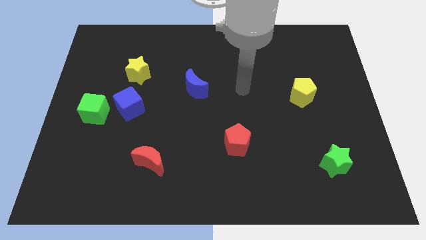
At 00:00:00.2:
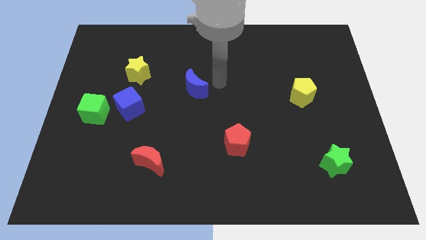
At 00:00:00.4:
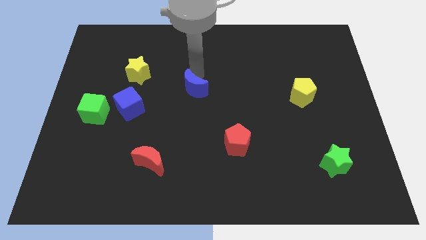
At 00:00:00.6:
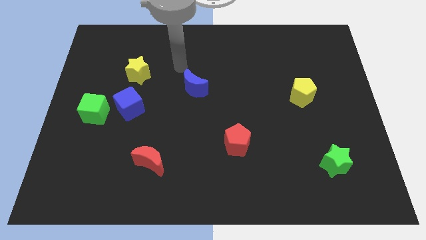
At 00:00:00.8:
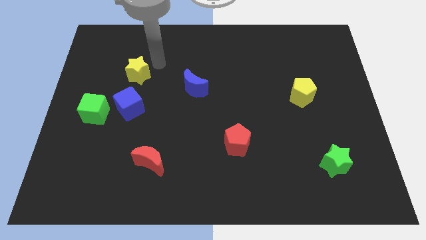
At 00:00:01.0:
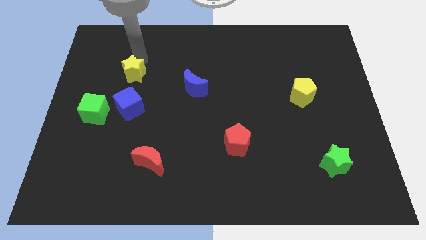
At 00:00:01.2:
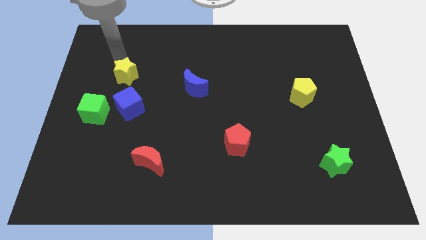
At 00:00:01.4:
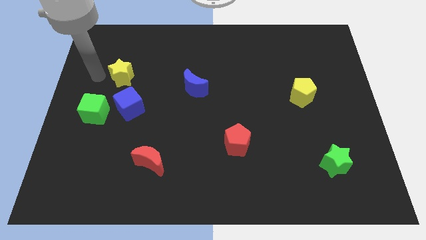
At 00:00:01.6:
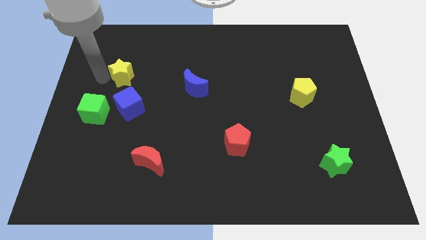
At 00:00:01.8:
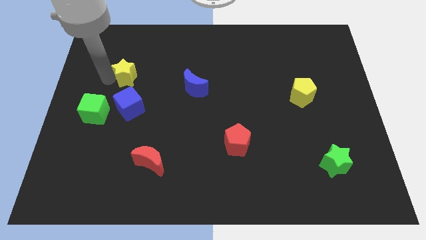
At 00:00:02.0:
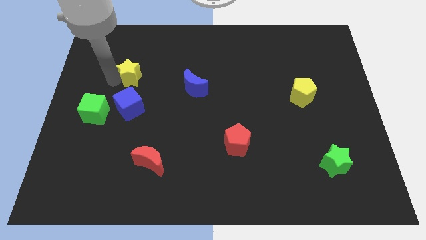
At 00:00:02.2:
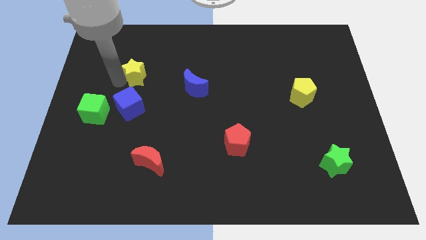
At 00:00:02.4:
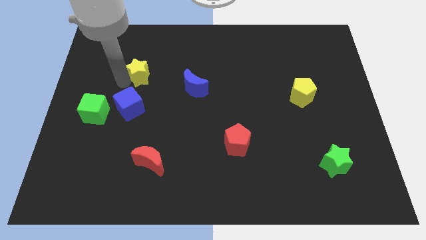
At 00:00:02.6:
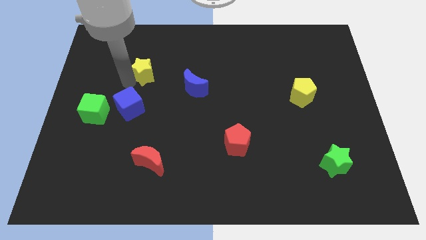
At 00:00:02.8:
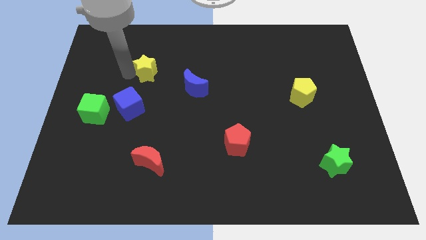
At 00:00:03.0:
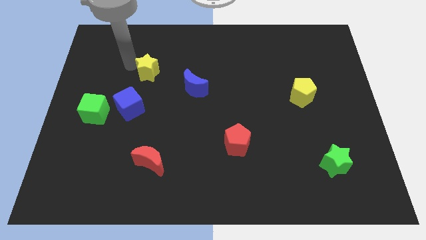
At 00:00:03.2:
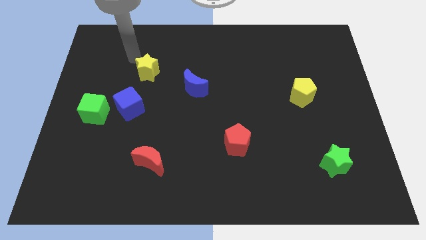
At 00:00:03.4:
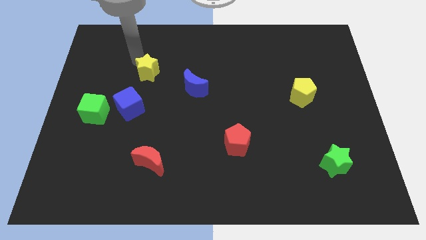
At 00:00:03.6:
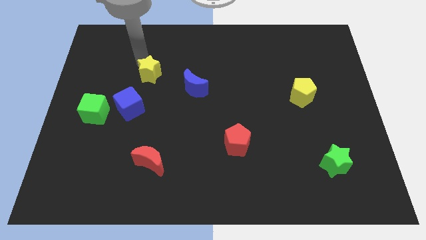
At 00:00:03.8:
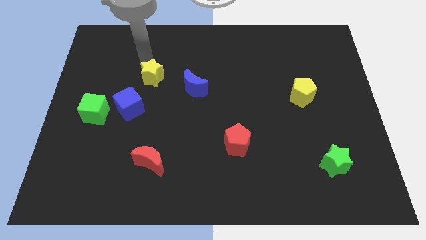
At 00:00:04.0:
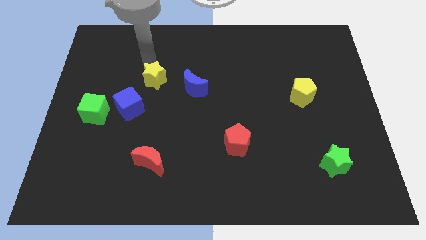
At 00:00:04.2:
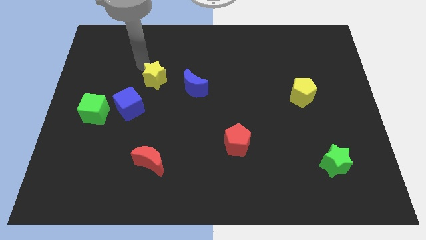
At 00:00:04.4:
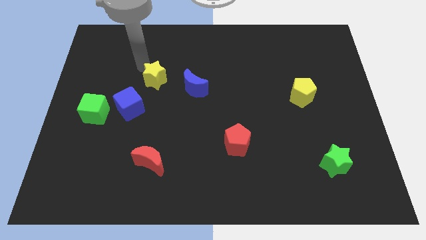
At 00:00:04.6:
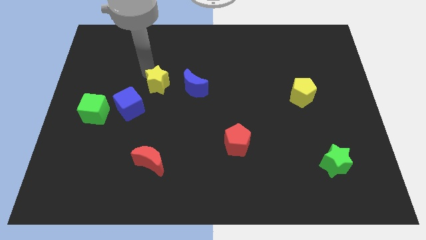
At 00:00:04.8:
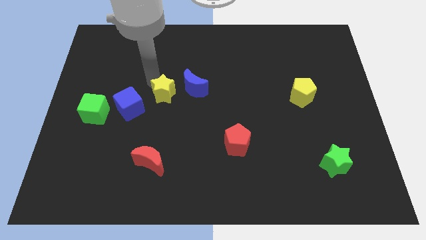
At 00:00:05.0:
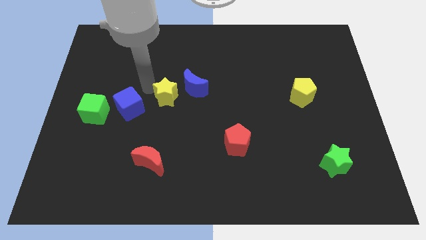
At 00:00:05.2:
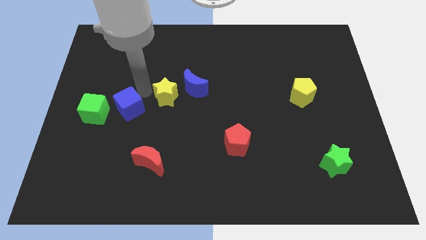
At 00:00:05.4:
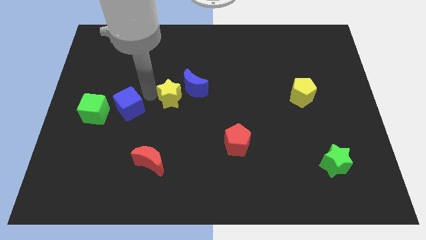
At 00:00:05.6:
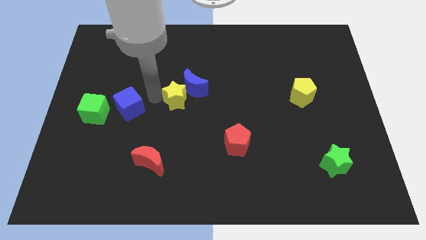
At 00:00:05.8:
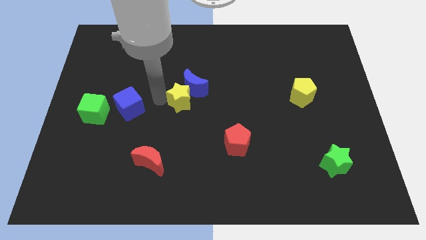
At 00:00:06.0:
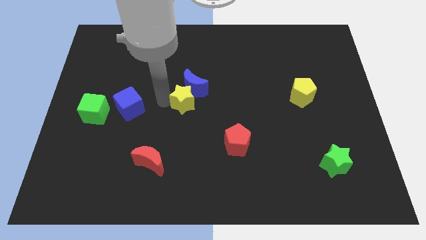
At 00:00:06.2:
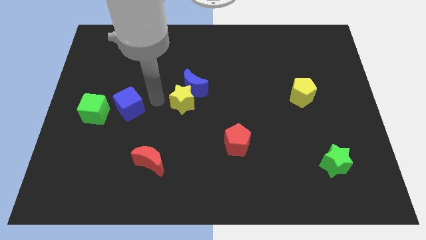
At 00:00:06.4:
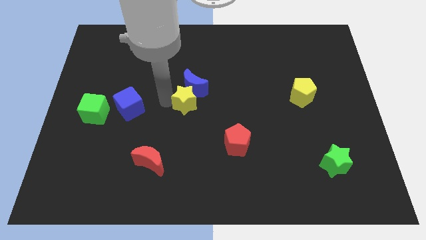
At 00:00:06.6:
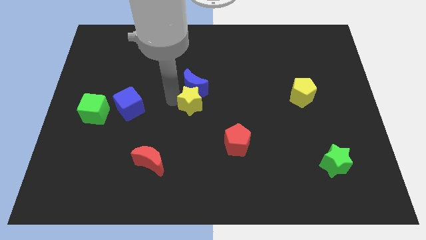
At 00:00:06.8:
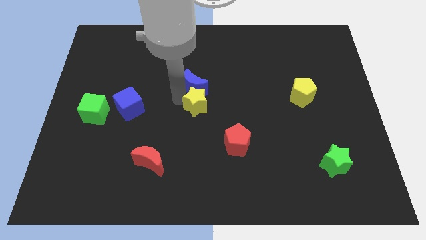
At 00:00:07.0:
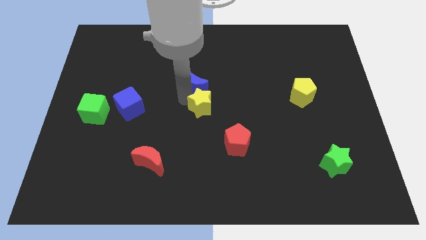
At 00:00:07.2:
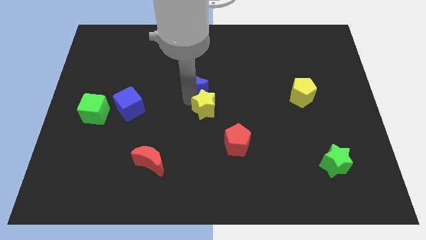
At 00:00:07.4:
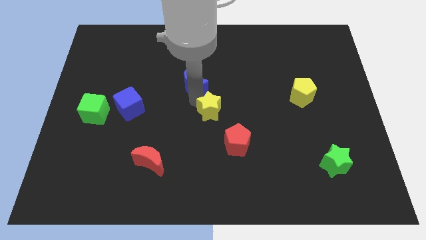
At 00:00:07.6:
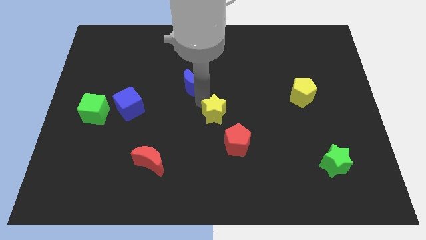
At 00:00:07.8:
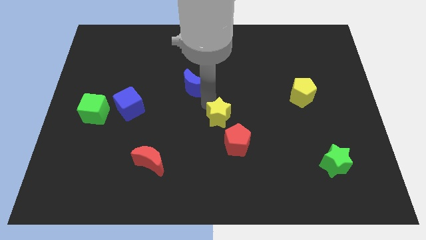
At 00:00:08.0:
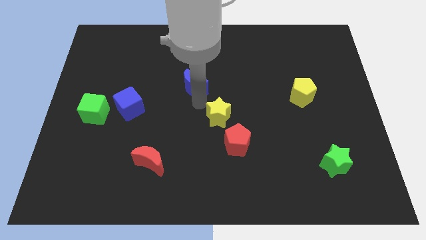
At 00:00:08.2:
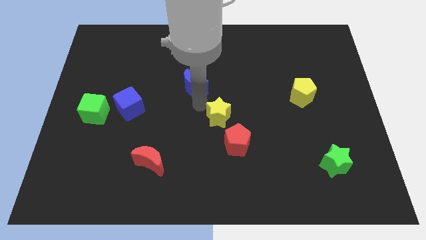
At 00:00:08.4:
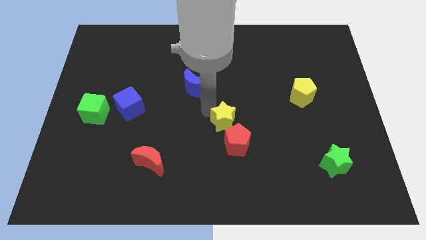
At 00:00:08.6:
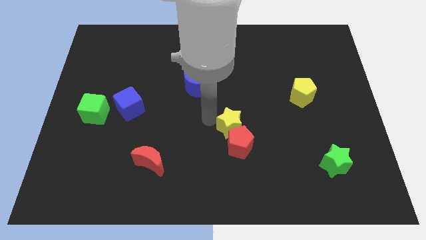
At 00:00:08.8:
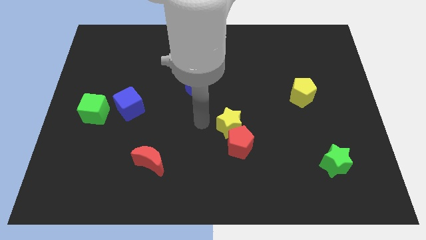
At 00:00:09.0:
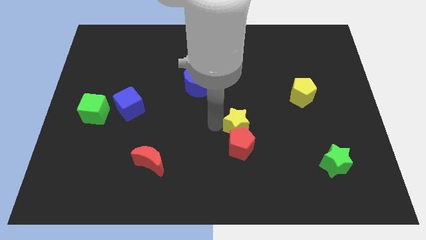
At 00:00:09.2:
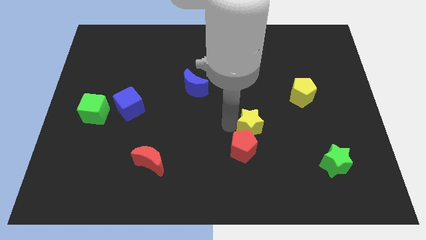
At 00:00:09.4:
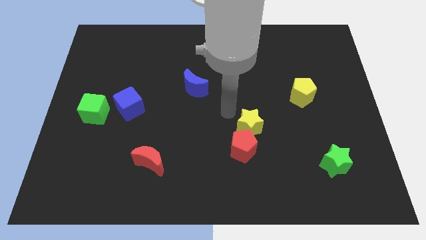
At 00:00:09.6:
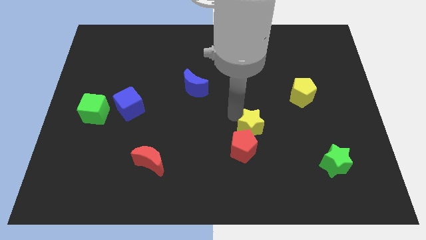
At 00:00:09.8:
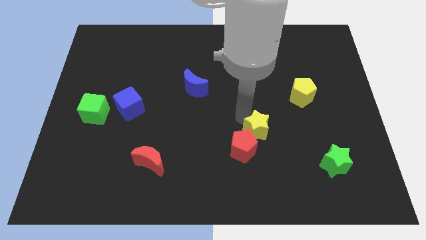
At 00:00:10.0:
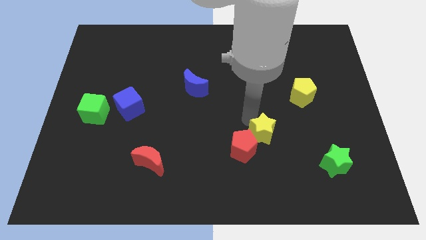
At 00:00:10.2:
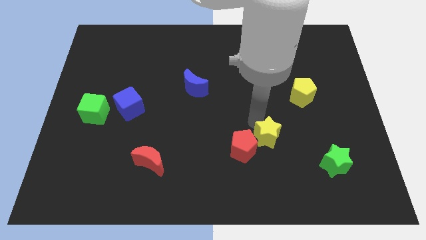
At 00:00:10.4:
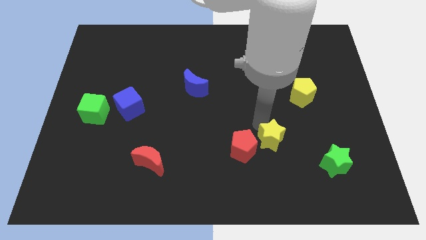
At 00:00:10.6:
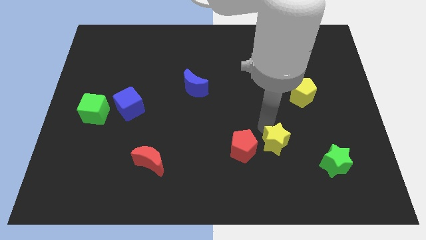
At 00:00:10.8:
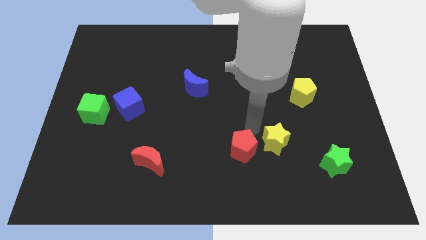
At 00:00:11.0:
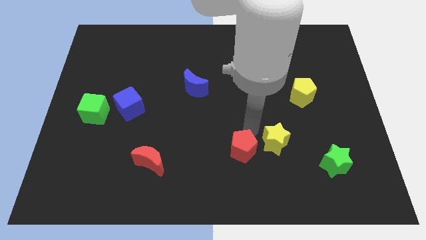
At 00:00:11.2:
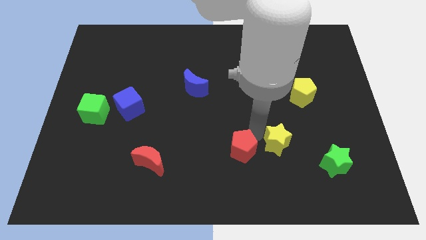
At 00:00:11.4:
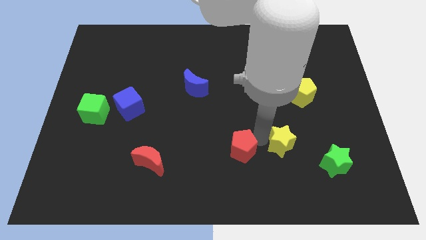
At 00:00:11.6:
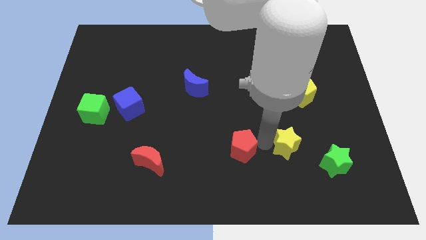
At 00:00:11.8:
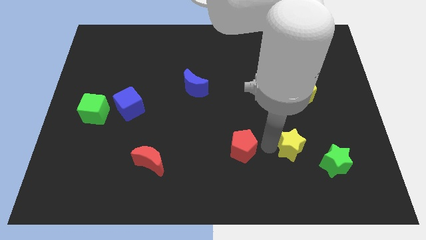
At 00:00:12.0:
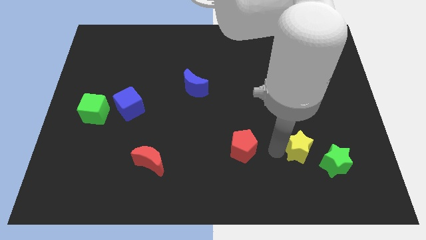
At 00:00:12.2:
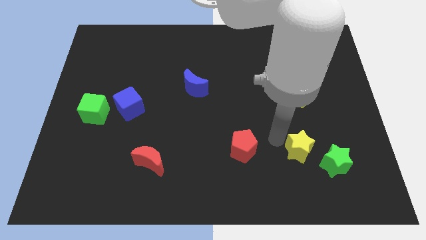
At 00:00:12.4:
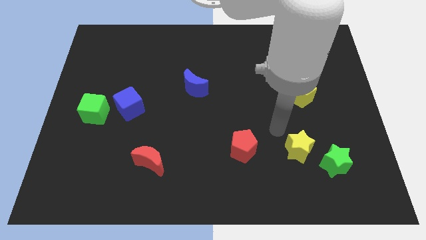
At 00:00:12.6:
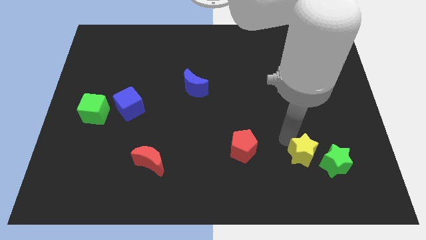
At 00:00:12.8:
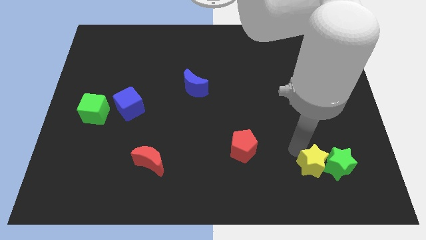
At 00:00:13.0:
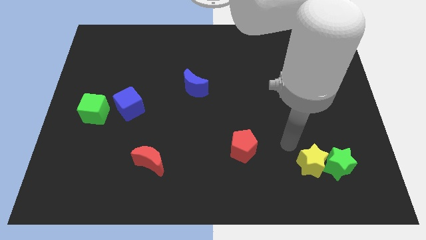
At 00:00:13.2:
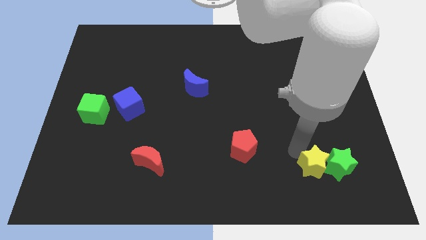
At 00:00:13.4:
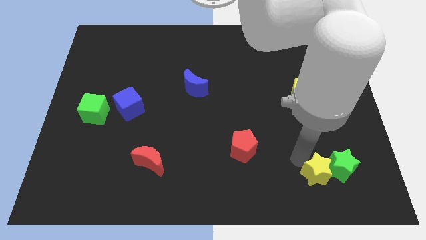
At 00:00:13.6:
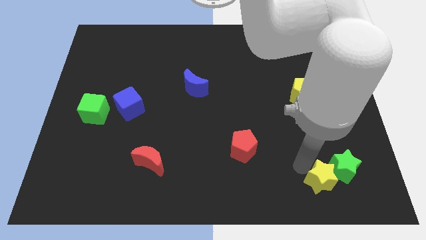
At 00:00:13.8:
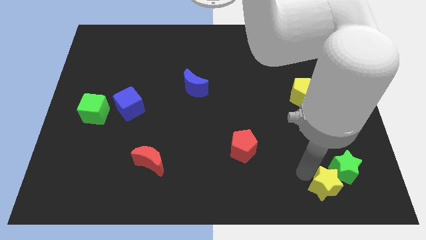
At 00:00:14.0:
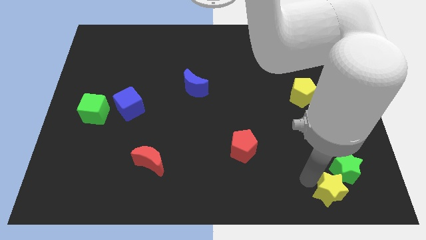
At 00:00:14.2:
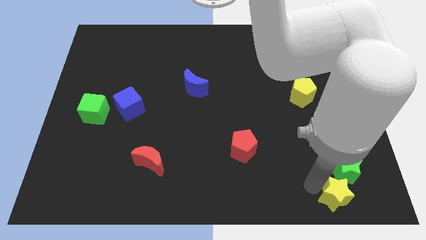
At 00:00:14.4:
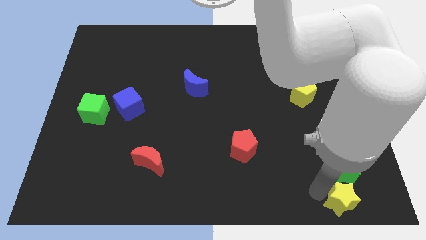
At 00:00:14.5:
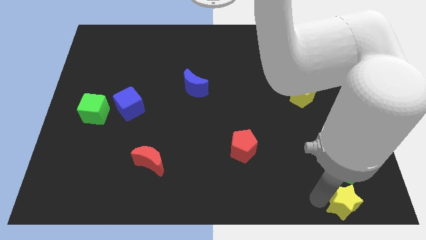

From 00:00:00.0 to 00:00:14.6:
put the yellow star to the bottom right of the board
